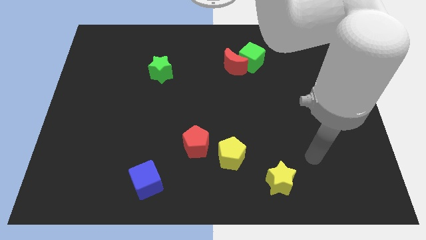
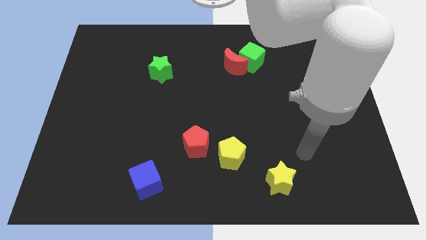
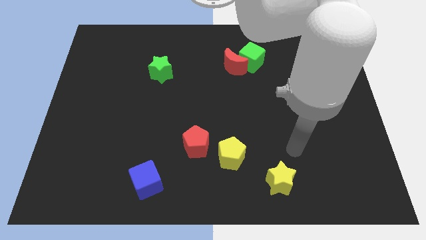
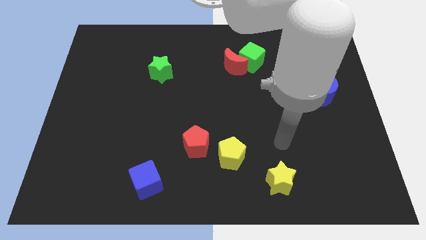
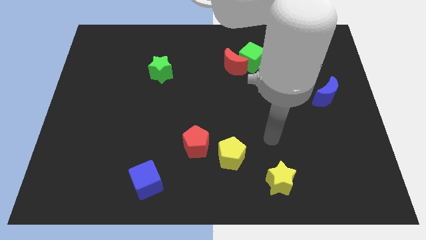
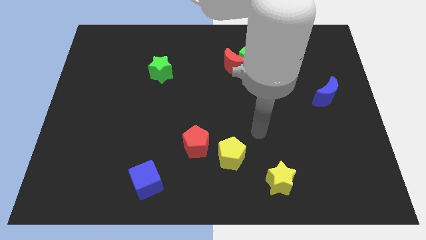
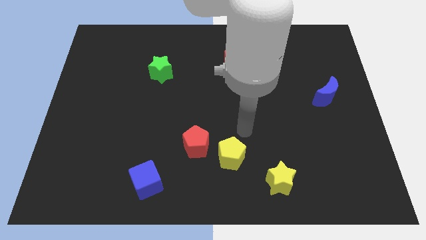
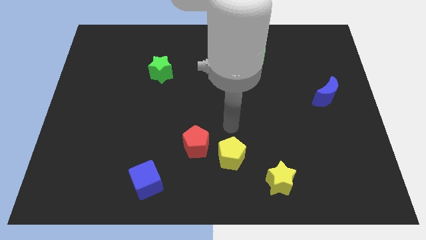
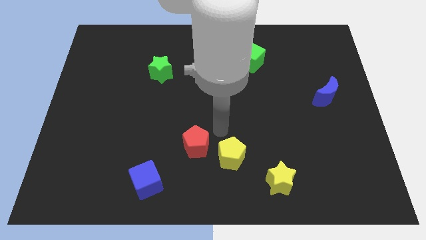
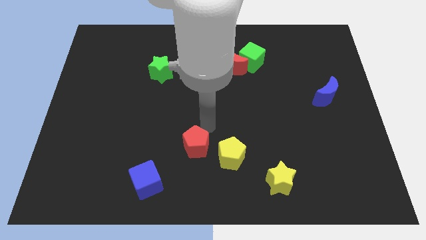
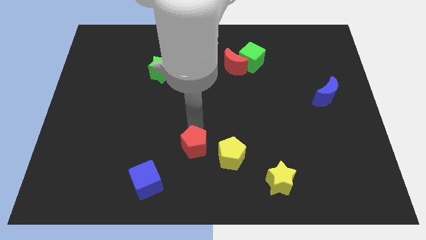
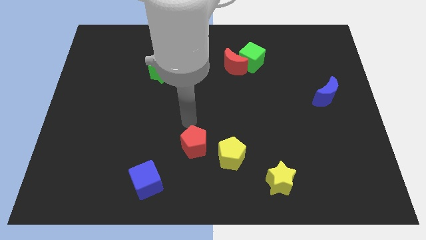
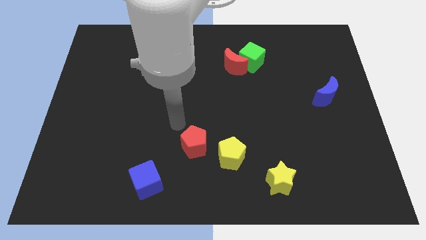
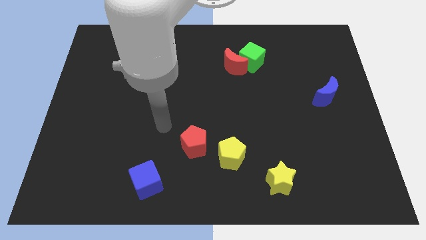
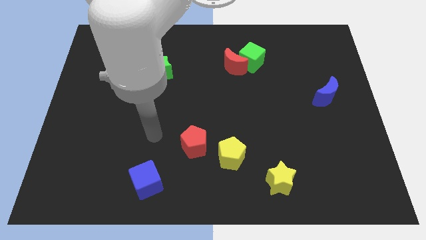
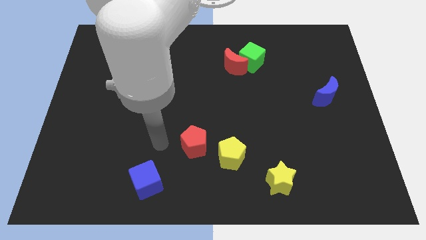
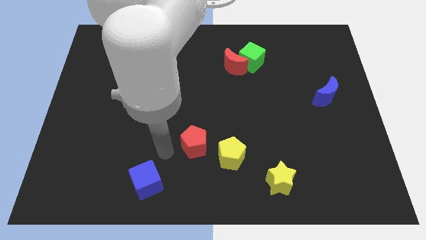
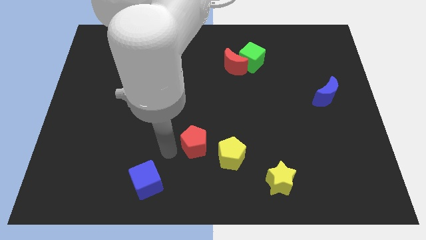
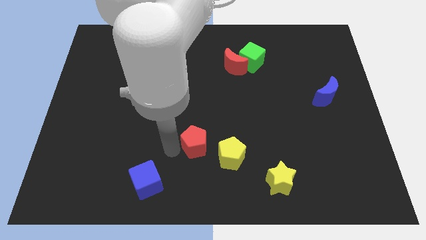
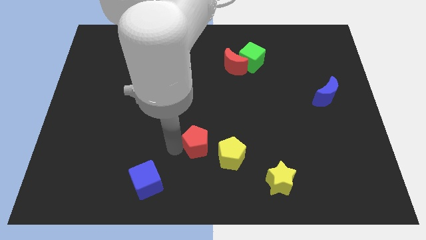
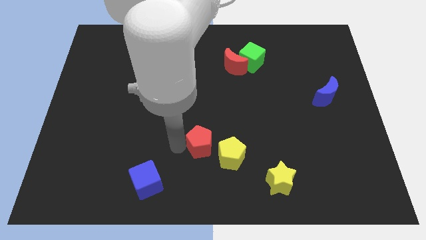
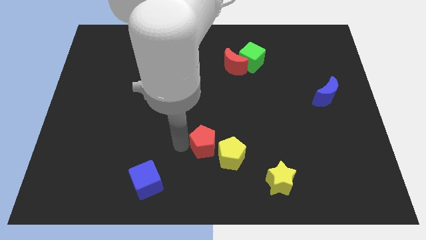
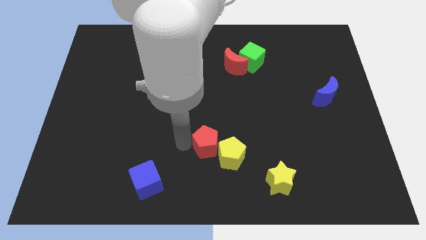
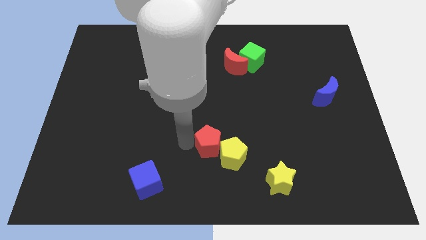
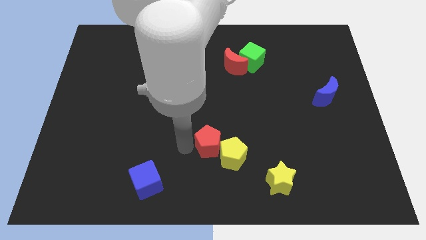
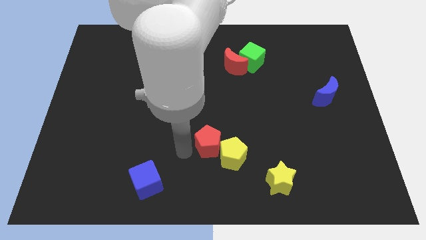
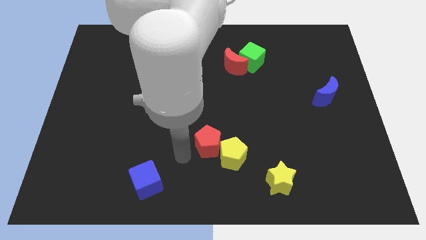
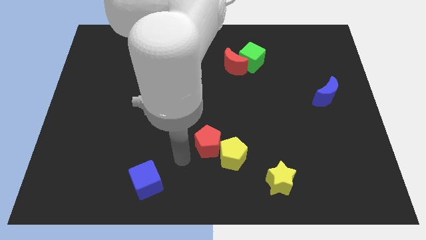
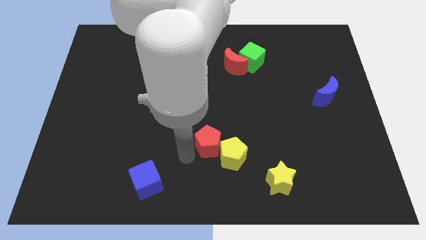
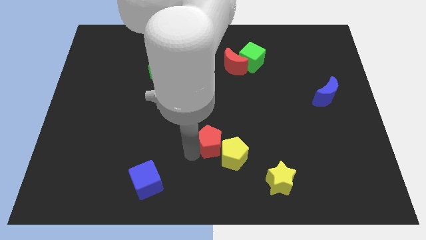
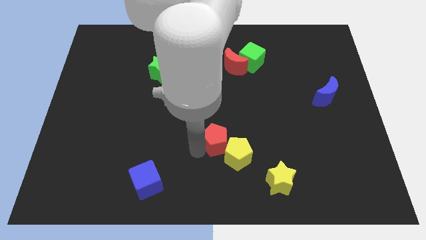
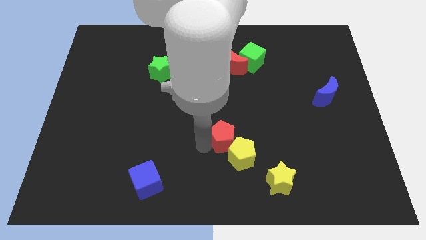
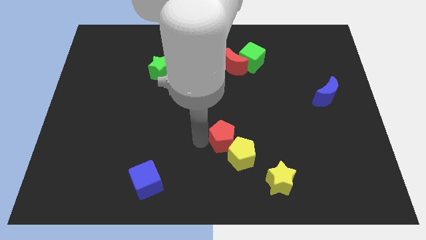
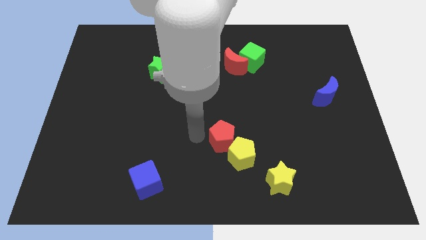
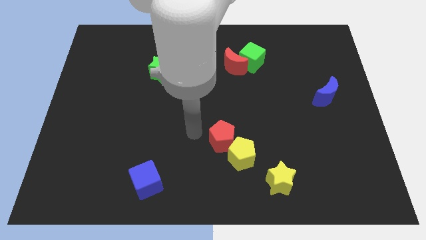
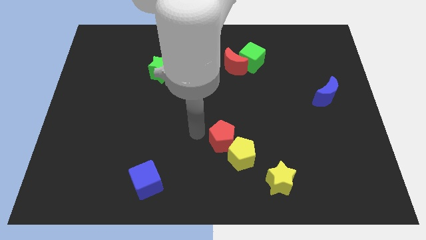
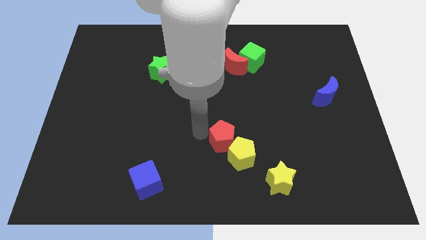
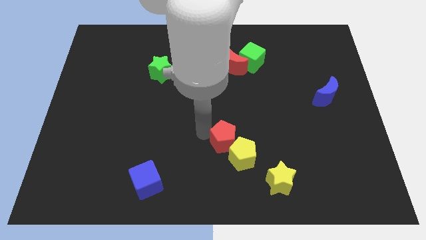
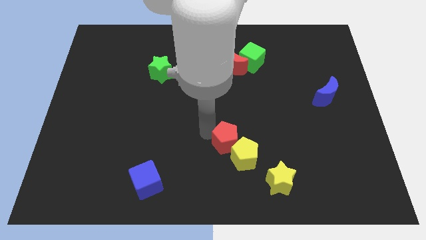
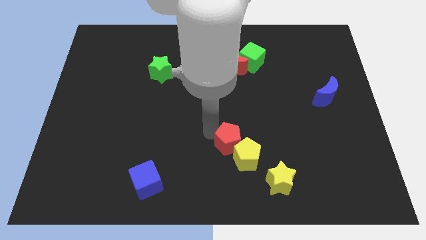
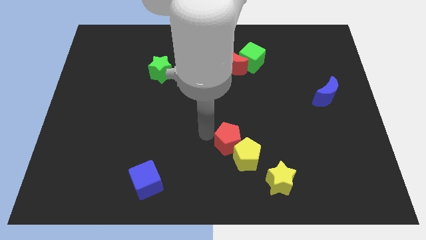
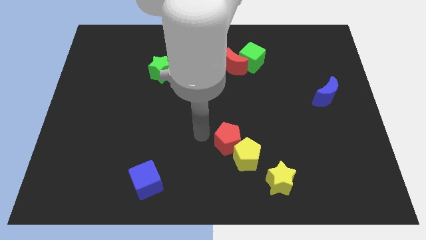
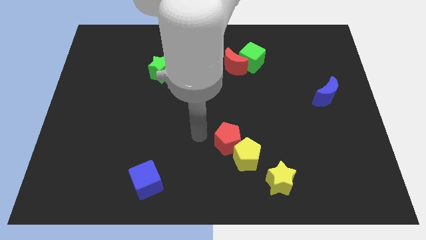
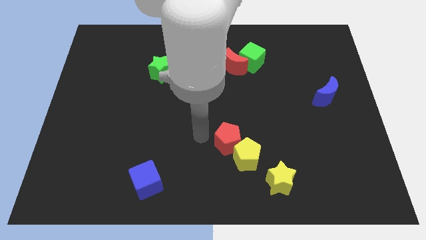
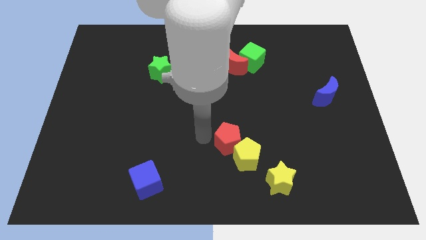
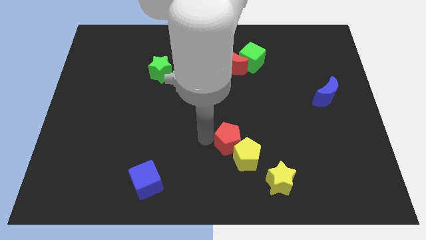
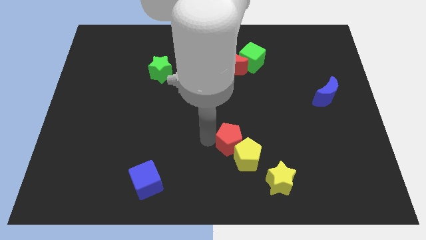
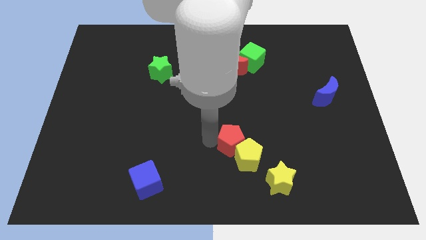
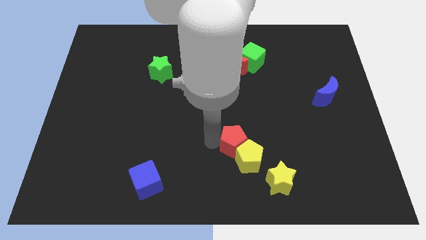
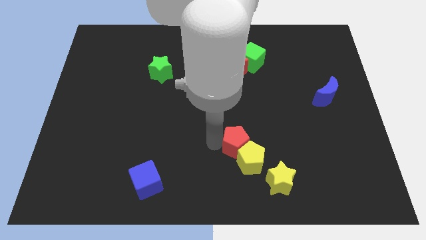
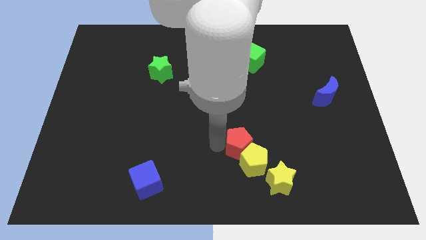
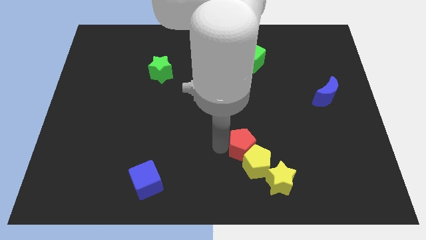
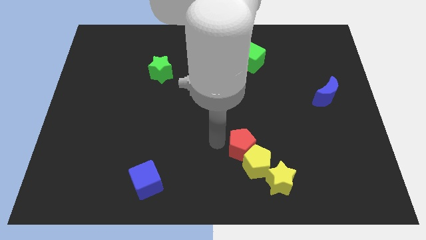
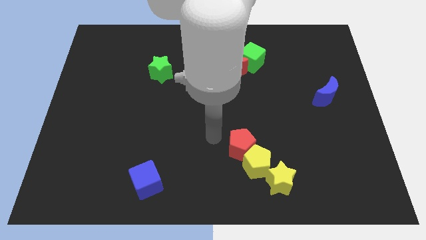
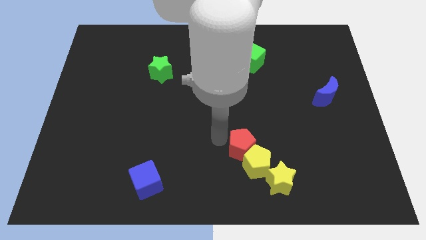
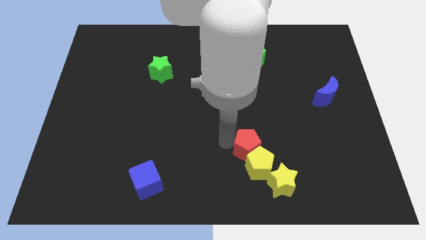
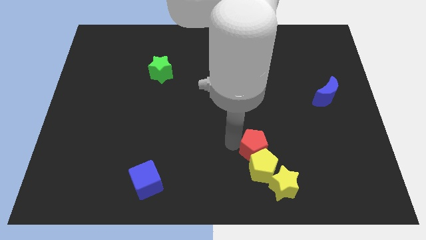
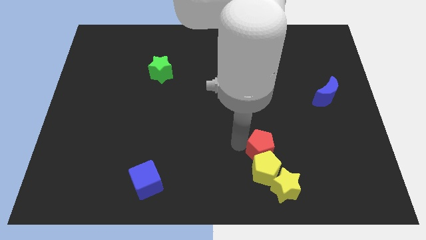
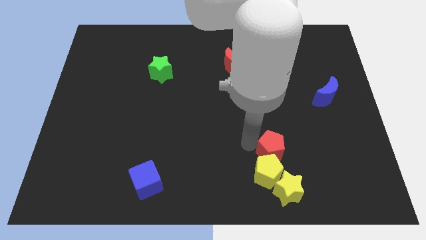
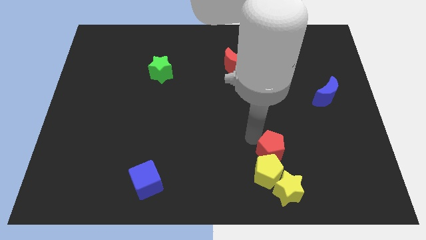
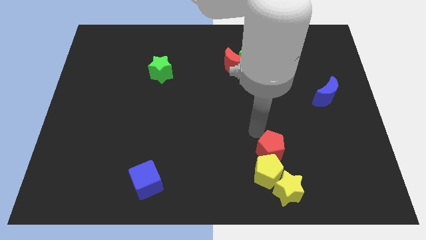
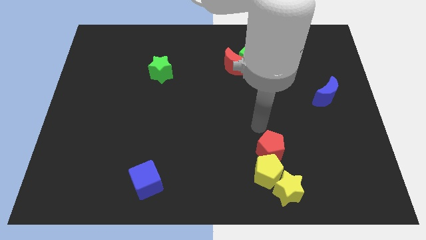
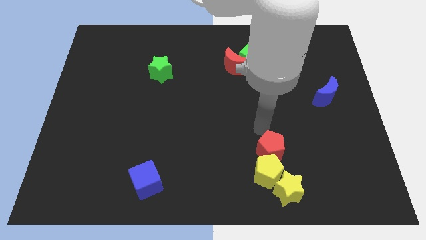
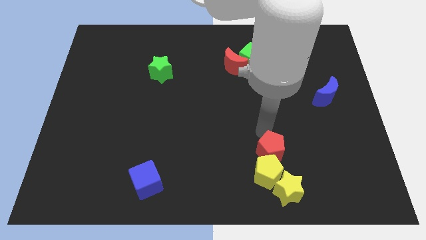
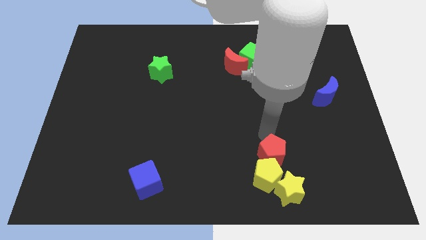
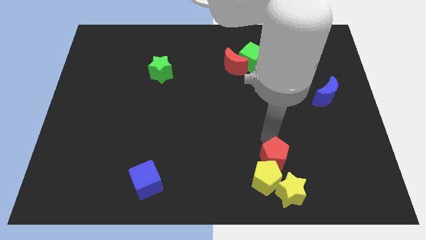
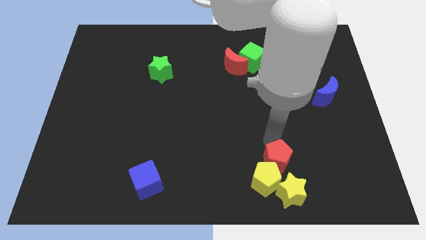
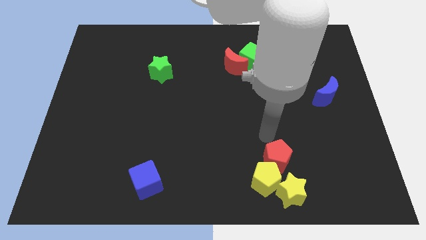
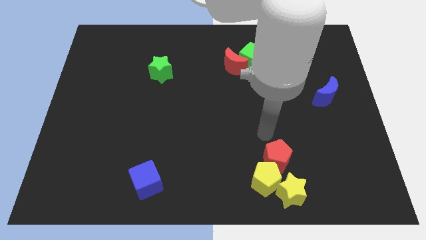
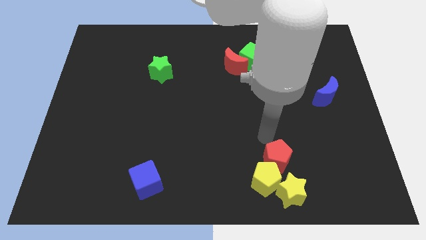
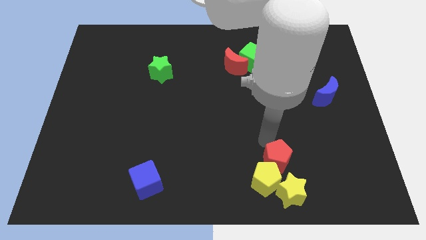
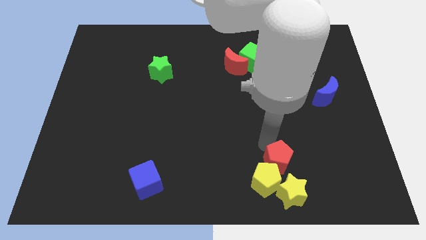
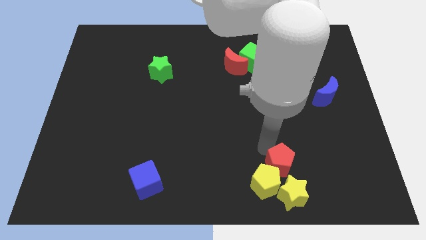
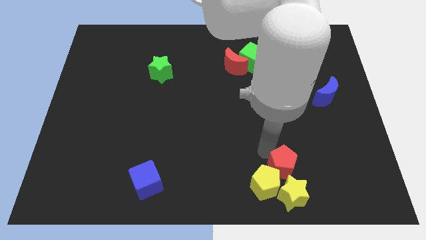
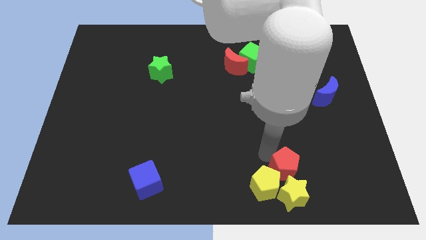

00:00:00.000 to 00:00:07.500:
put the red pentagon towards the yellow star
